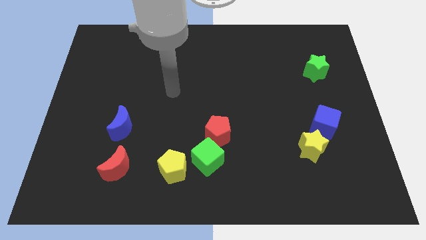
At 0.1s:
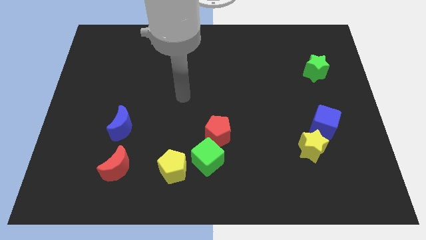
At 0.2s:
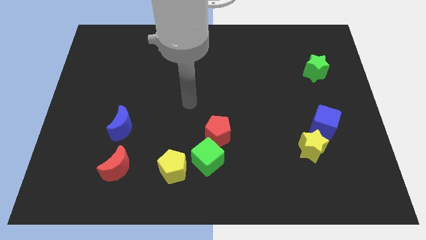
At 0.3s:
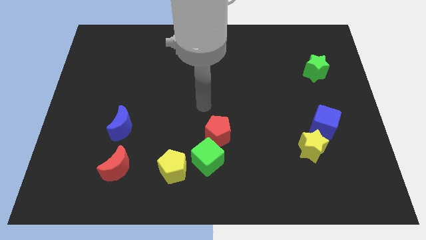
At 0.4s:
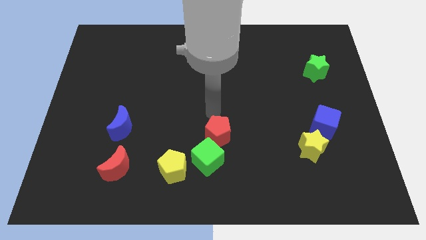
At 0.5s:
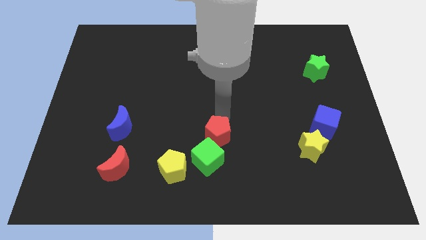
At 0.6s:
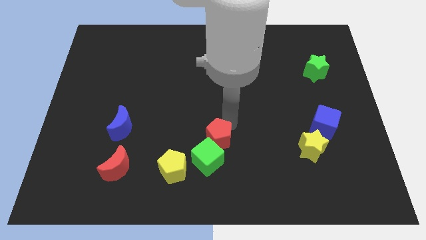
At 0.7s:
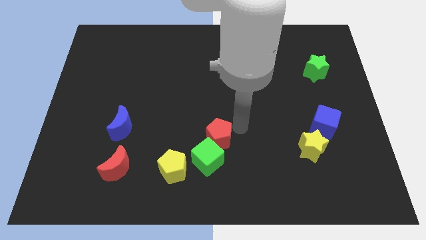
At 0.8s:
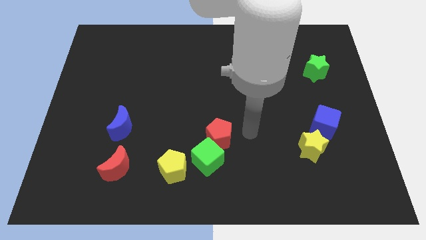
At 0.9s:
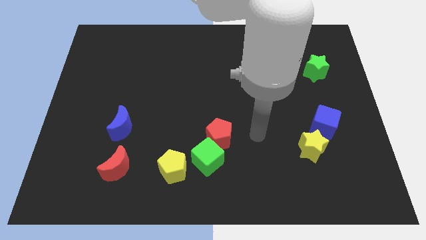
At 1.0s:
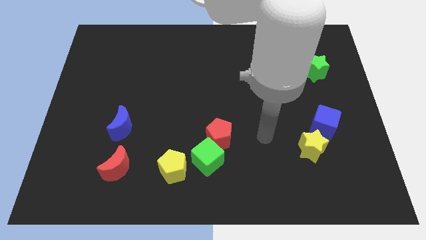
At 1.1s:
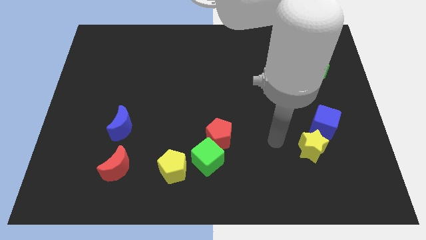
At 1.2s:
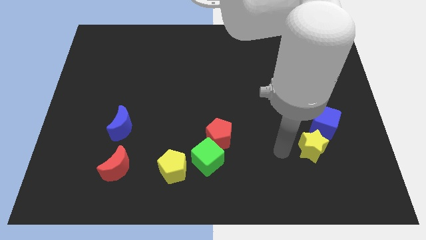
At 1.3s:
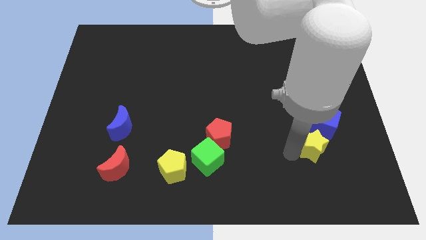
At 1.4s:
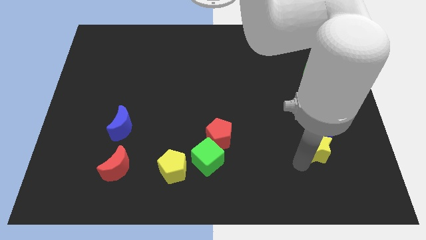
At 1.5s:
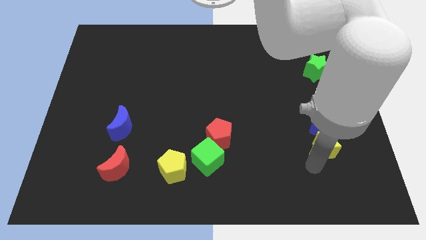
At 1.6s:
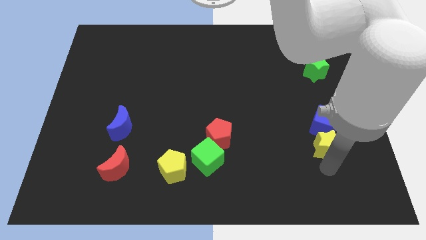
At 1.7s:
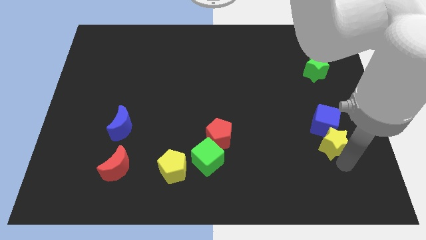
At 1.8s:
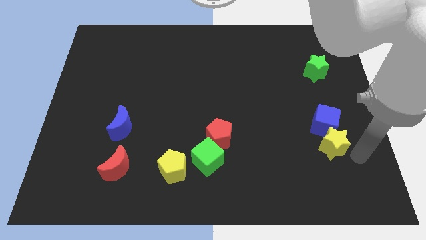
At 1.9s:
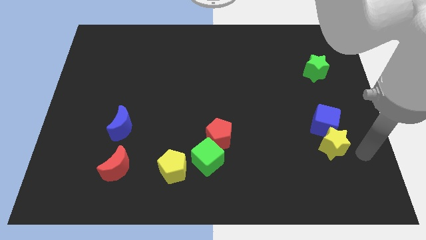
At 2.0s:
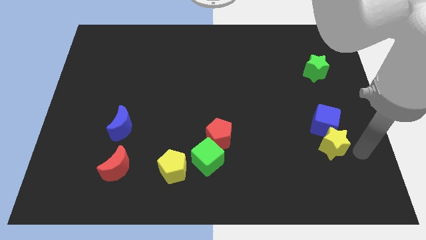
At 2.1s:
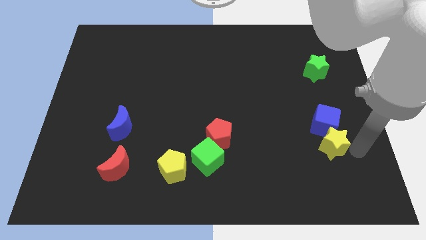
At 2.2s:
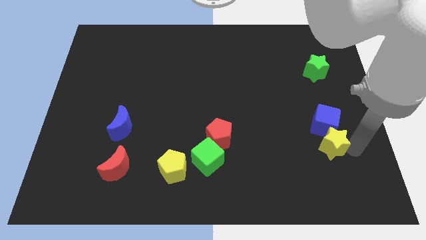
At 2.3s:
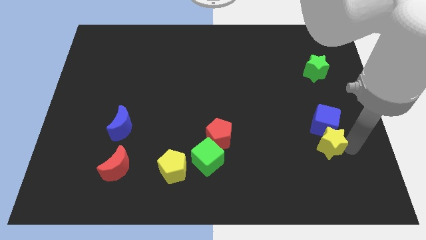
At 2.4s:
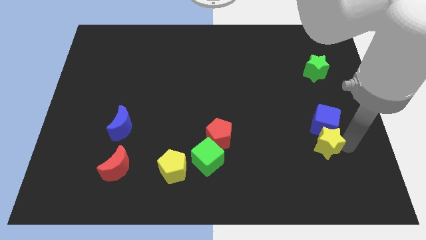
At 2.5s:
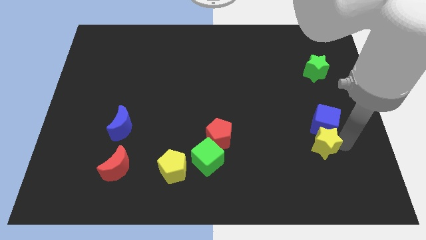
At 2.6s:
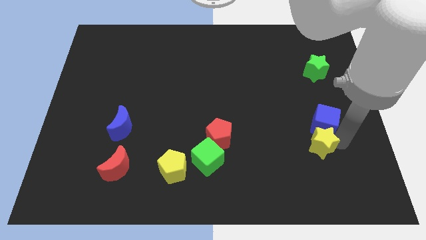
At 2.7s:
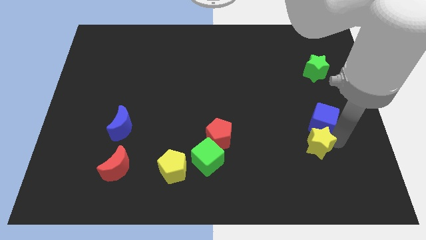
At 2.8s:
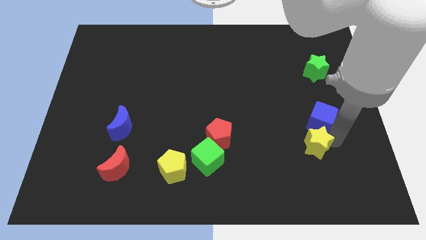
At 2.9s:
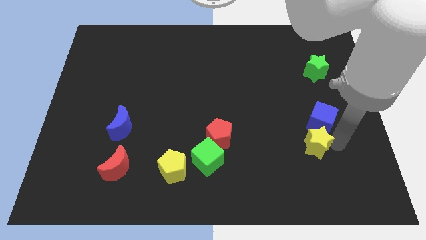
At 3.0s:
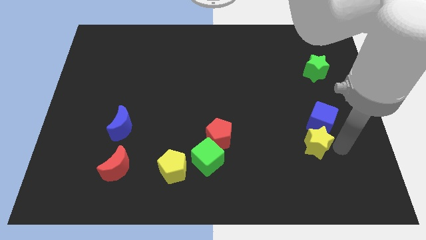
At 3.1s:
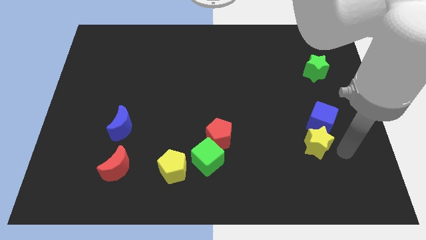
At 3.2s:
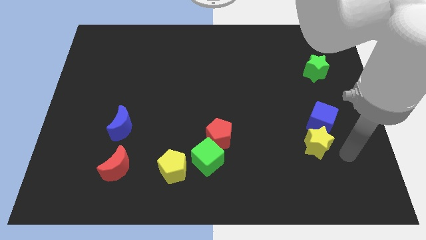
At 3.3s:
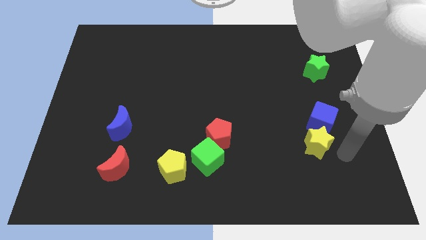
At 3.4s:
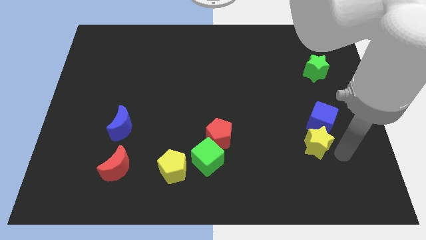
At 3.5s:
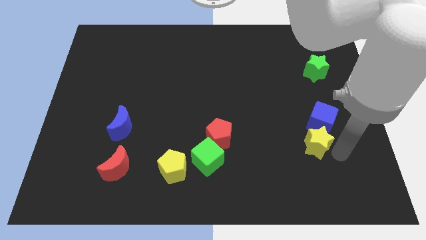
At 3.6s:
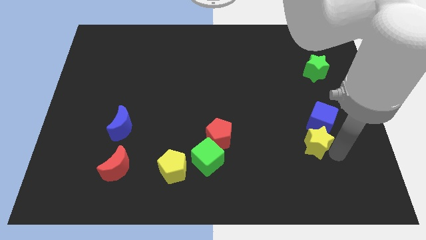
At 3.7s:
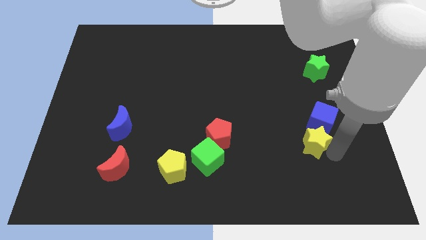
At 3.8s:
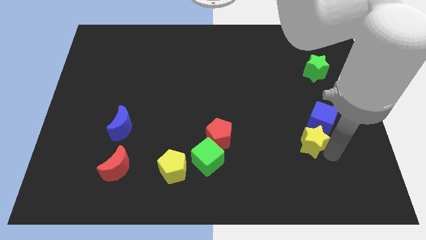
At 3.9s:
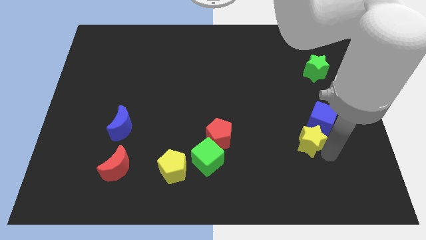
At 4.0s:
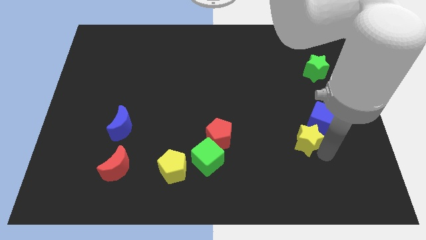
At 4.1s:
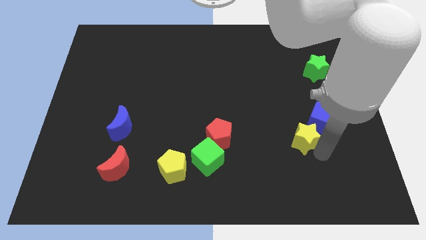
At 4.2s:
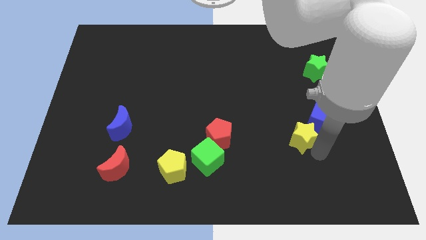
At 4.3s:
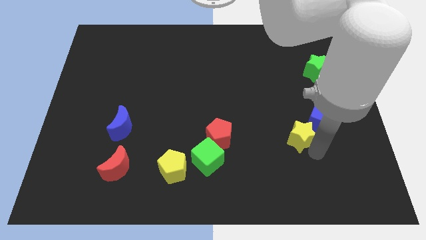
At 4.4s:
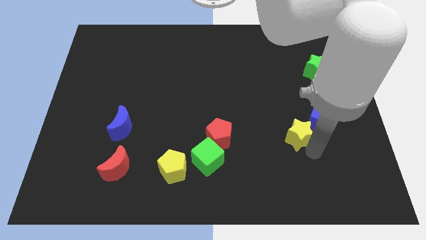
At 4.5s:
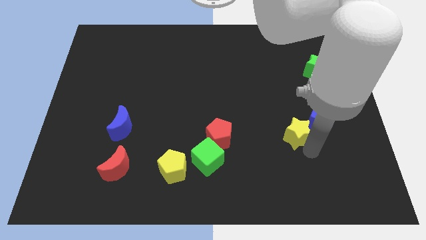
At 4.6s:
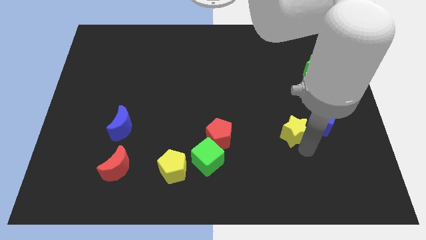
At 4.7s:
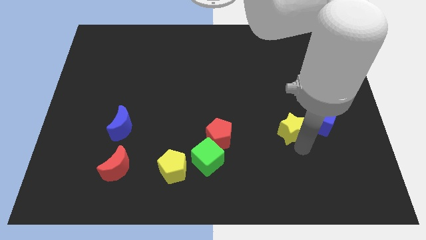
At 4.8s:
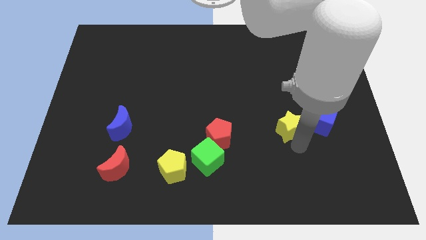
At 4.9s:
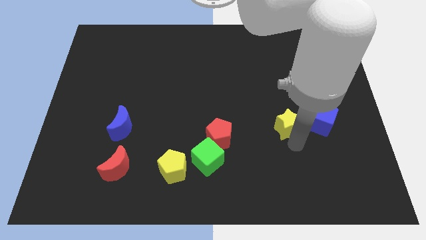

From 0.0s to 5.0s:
move the yellow star up and to the left a little bit

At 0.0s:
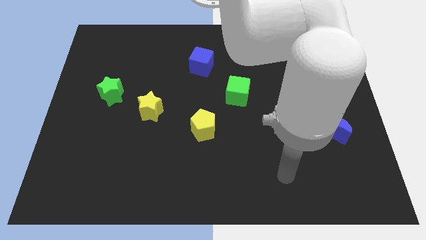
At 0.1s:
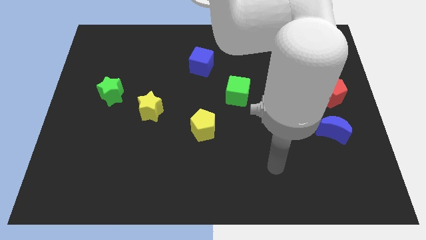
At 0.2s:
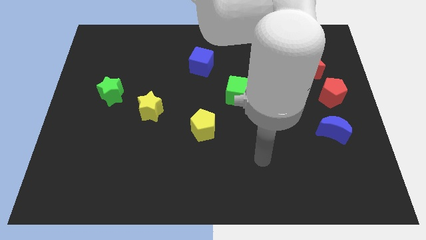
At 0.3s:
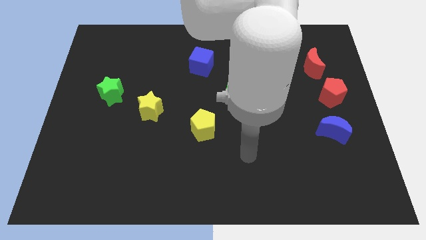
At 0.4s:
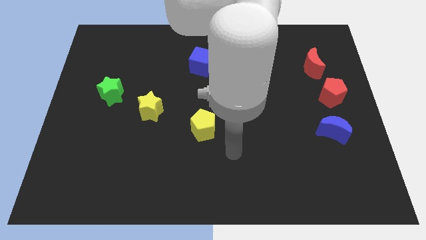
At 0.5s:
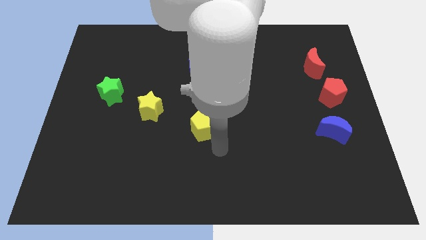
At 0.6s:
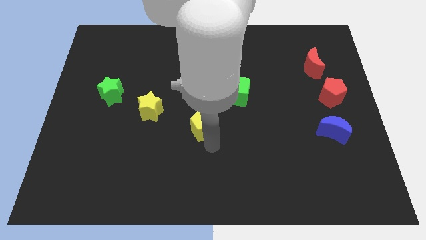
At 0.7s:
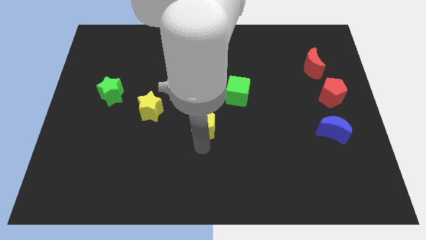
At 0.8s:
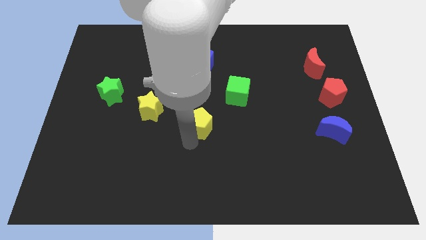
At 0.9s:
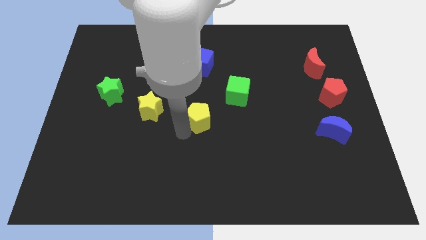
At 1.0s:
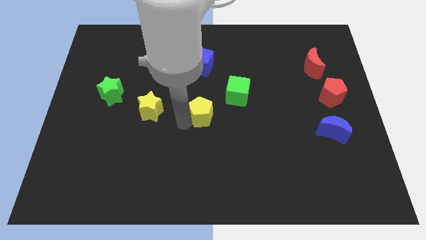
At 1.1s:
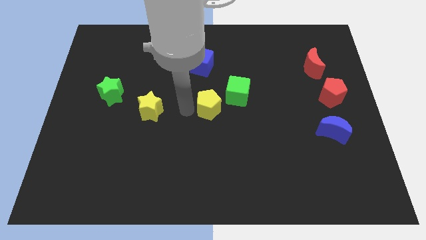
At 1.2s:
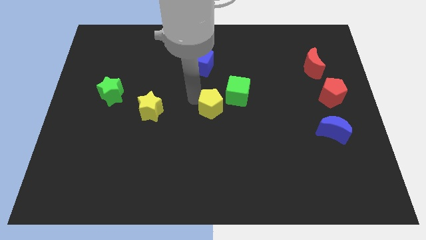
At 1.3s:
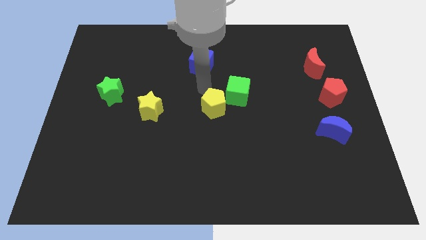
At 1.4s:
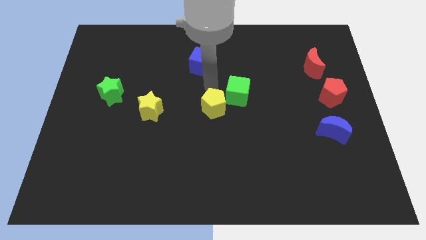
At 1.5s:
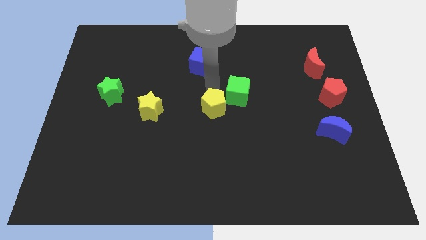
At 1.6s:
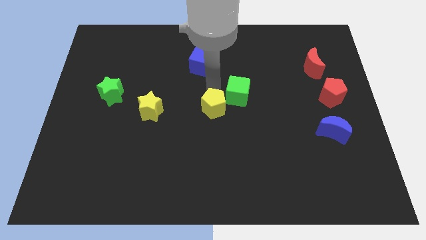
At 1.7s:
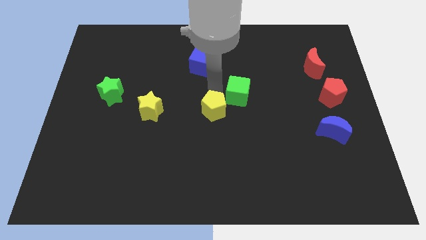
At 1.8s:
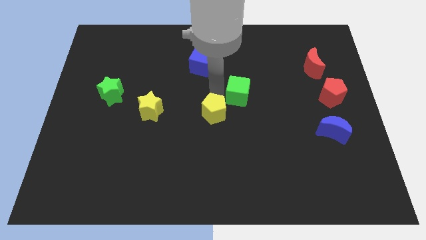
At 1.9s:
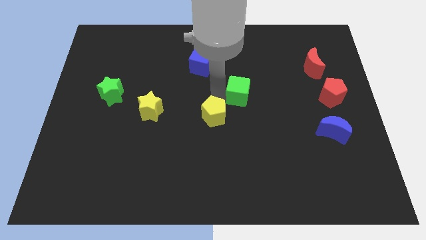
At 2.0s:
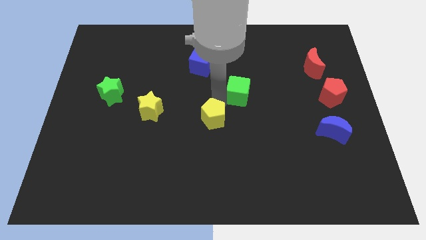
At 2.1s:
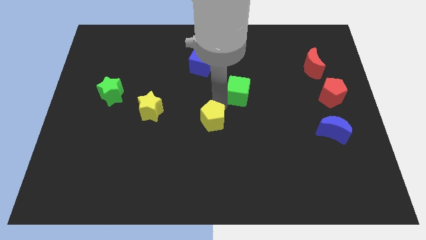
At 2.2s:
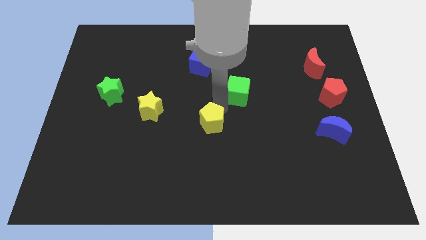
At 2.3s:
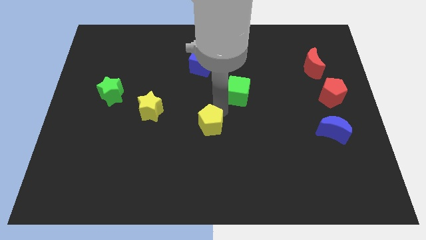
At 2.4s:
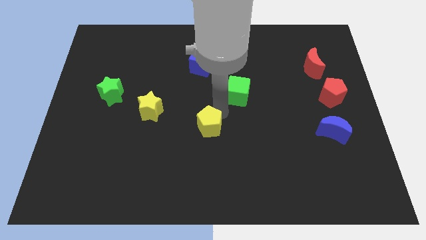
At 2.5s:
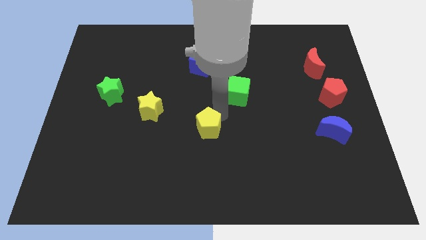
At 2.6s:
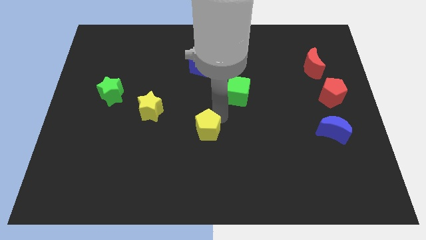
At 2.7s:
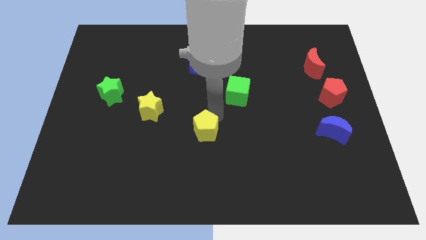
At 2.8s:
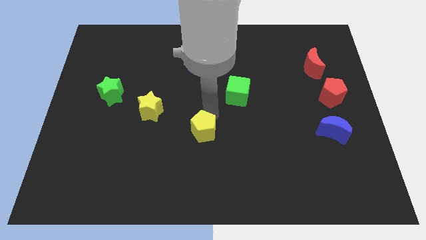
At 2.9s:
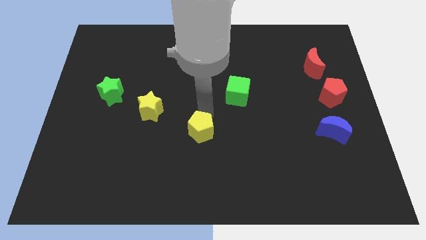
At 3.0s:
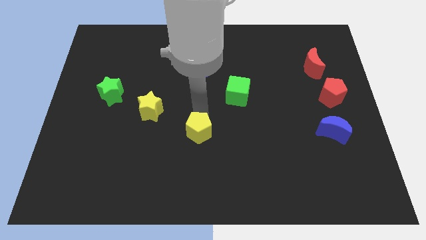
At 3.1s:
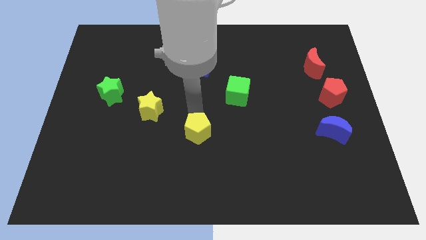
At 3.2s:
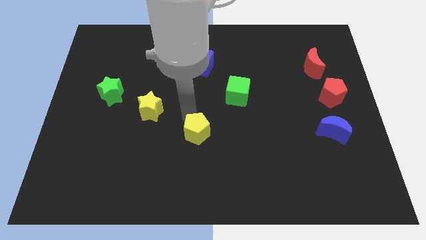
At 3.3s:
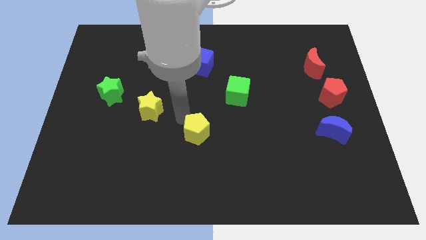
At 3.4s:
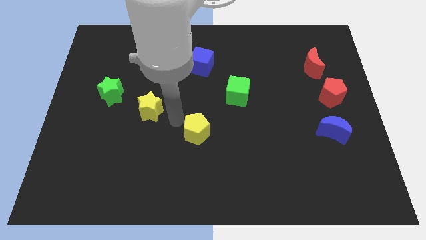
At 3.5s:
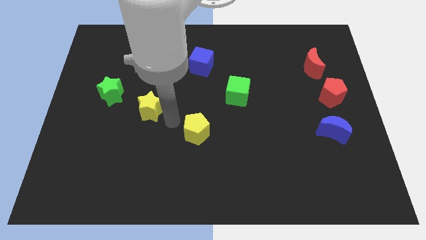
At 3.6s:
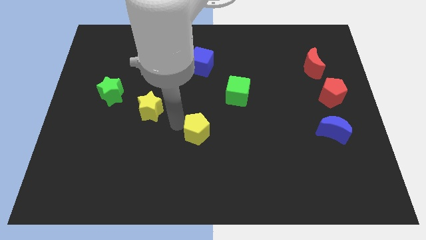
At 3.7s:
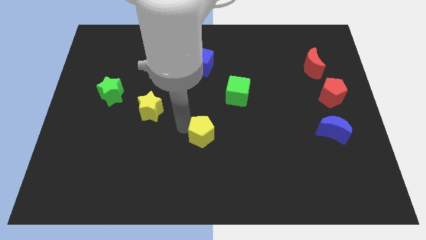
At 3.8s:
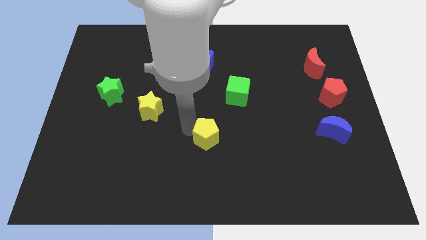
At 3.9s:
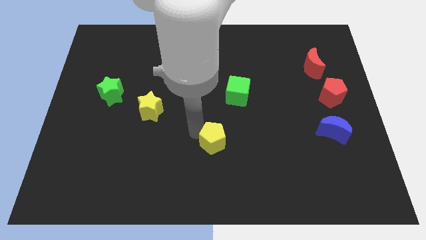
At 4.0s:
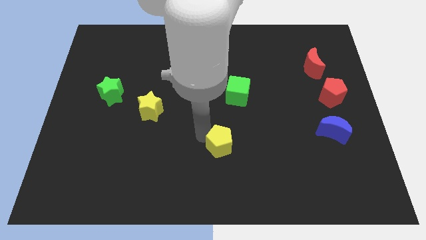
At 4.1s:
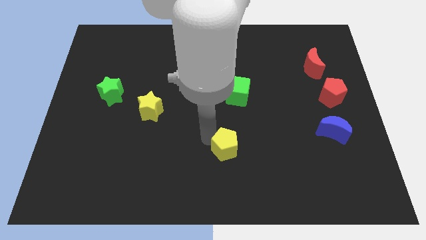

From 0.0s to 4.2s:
move the yellow pentagon downwards and then right somewhat
